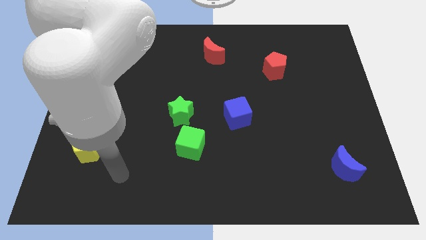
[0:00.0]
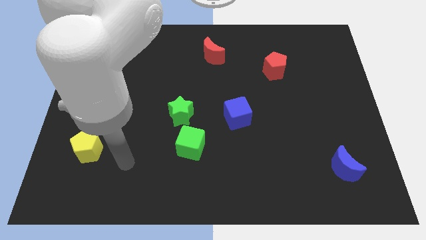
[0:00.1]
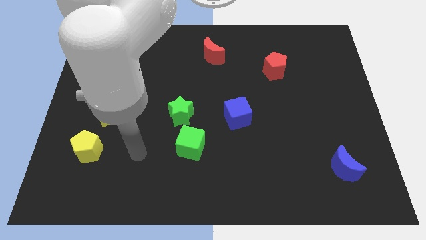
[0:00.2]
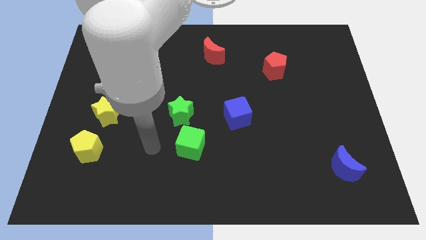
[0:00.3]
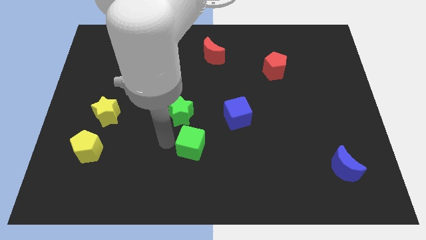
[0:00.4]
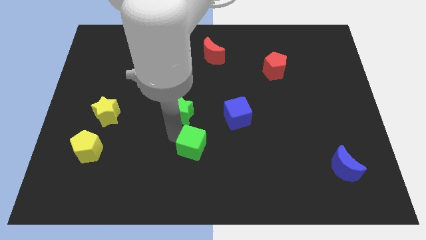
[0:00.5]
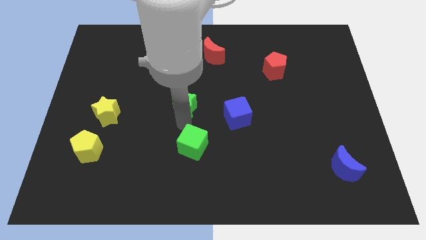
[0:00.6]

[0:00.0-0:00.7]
move the green cube away from the green star

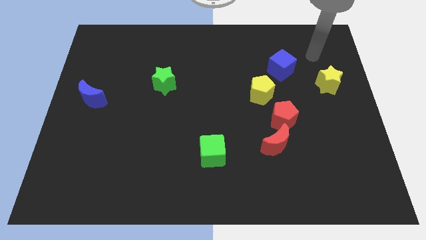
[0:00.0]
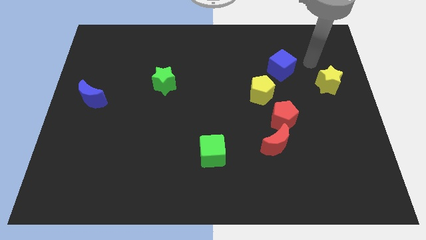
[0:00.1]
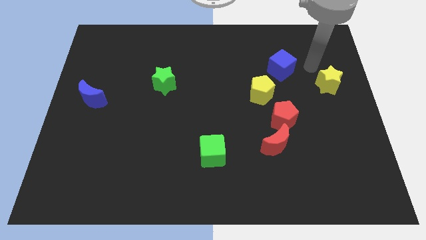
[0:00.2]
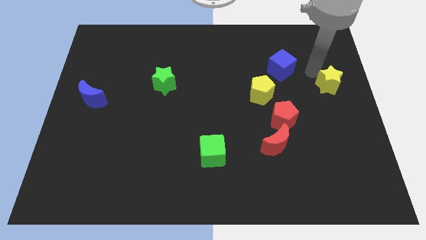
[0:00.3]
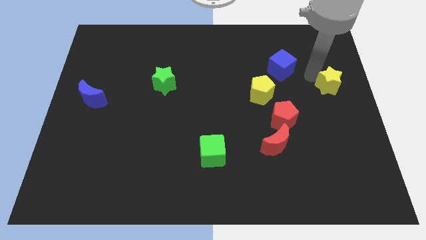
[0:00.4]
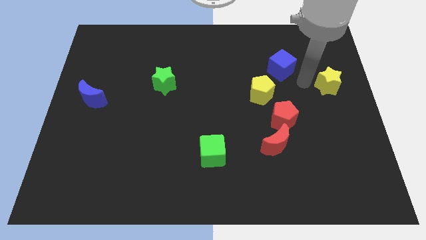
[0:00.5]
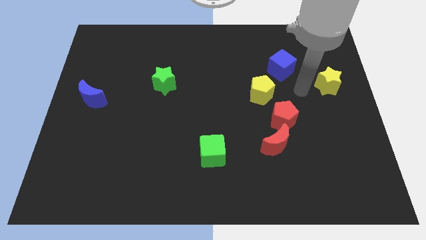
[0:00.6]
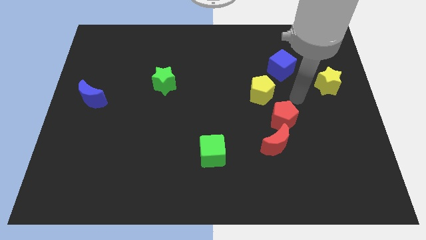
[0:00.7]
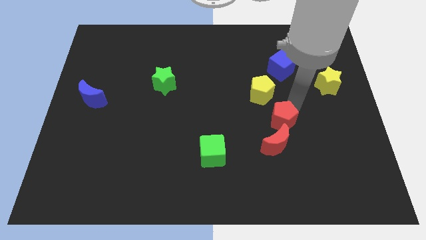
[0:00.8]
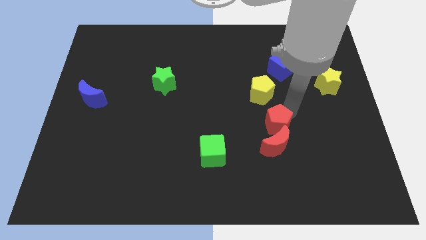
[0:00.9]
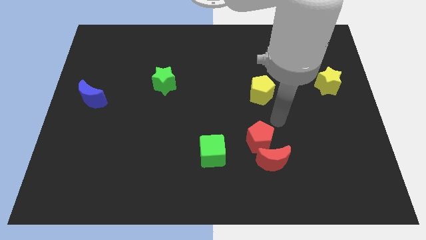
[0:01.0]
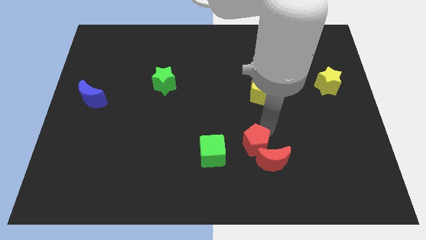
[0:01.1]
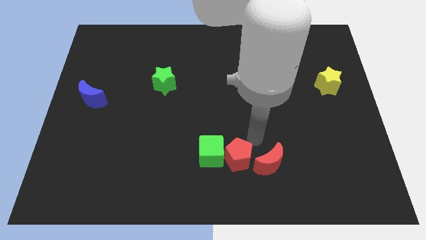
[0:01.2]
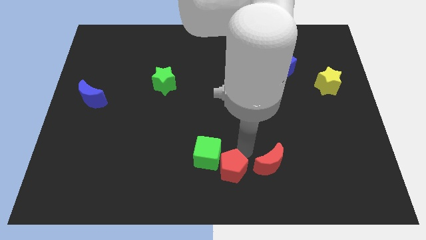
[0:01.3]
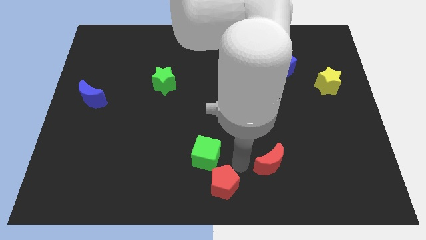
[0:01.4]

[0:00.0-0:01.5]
pull the red moon apart from the red pentagon

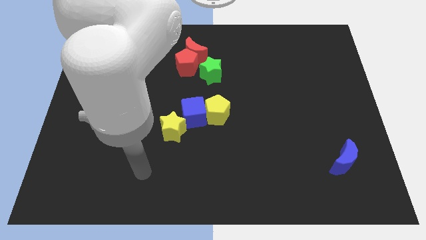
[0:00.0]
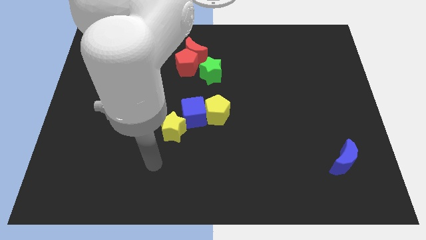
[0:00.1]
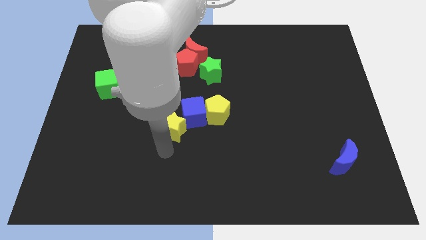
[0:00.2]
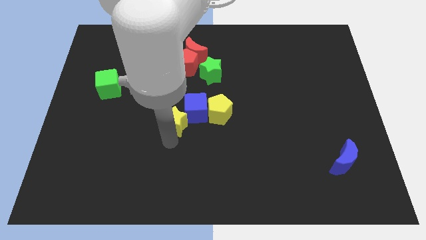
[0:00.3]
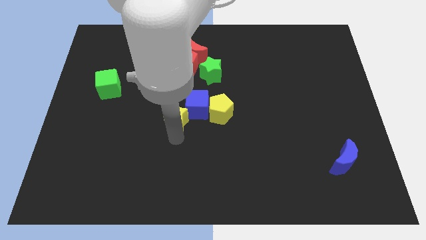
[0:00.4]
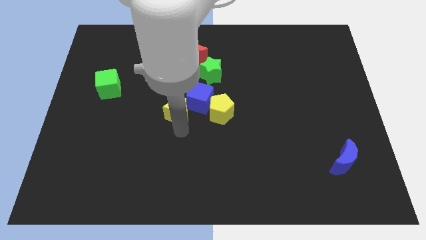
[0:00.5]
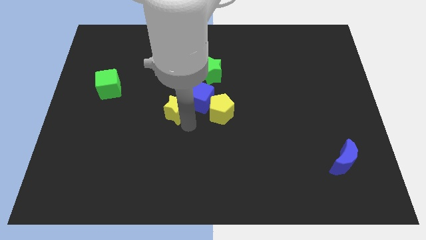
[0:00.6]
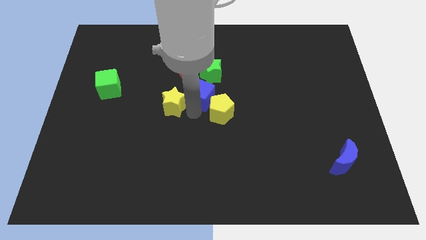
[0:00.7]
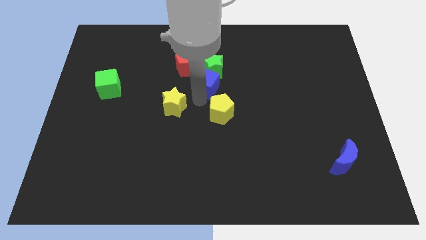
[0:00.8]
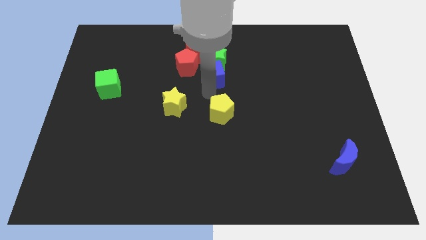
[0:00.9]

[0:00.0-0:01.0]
pull the yellow pentagon apart from the blue cube

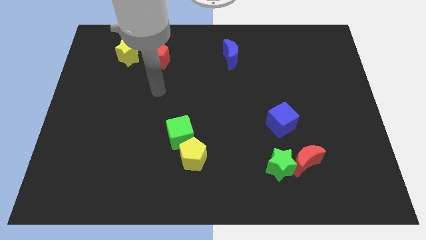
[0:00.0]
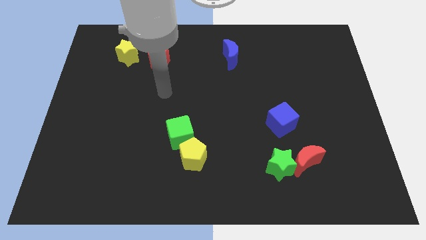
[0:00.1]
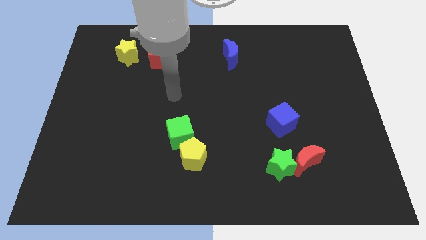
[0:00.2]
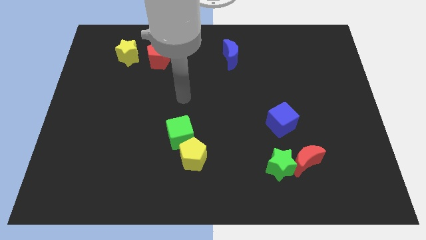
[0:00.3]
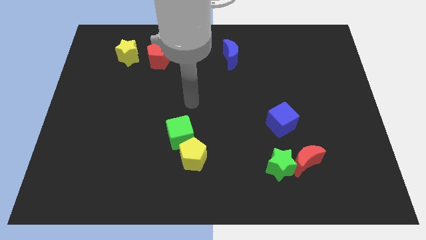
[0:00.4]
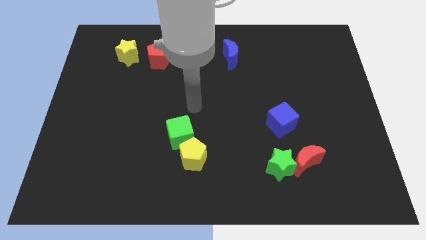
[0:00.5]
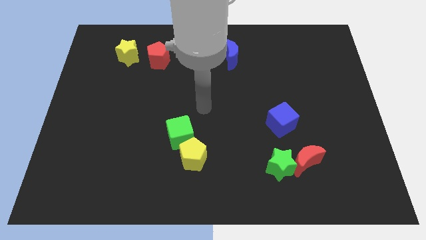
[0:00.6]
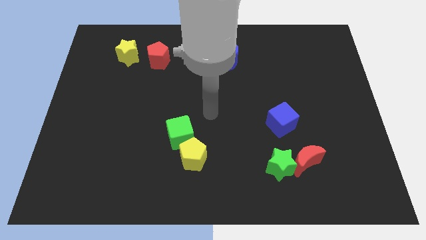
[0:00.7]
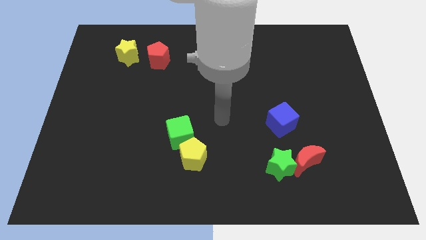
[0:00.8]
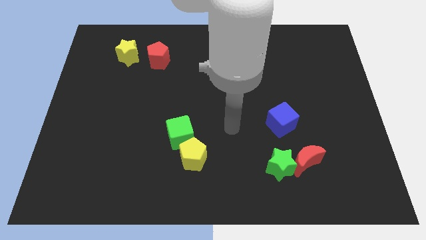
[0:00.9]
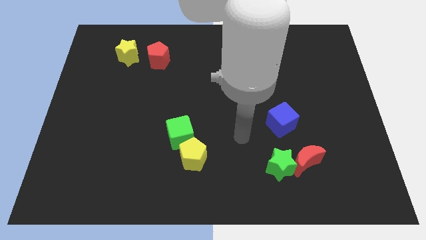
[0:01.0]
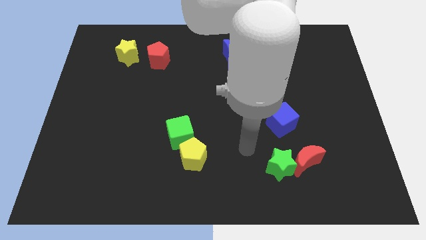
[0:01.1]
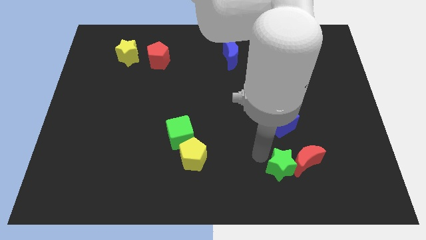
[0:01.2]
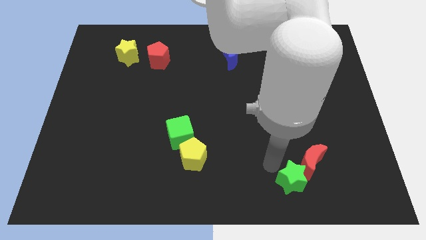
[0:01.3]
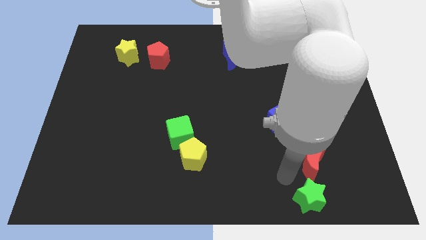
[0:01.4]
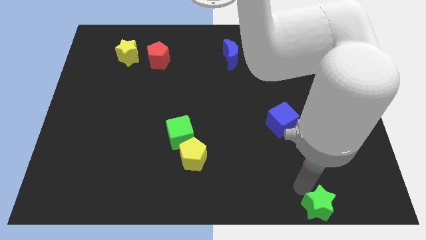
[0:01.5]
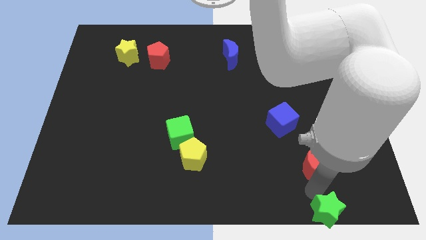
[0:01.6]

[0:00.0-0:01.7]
pull the red moon apart from the green star

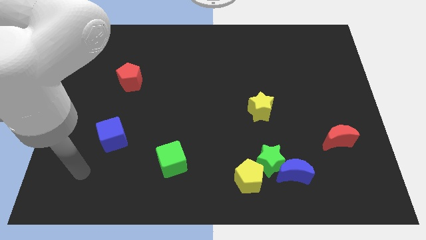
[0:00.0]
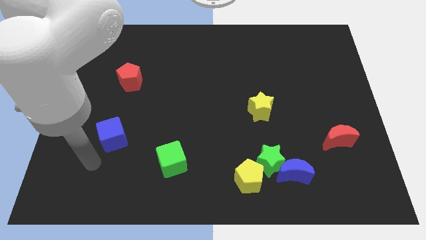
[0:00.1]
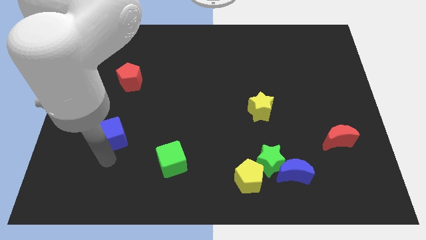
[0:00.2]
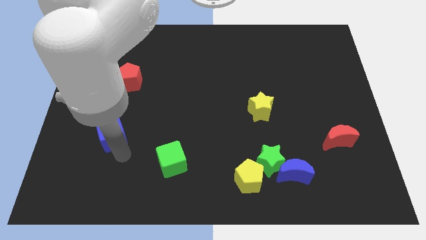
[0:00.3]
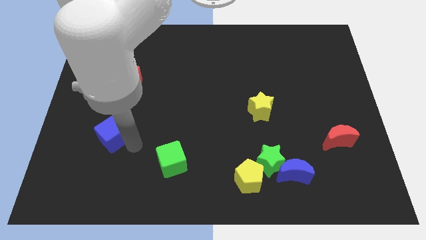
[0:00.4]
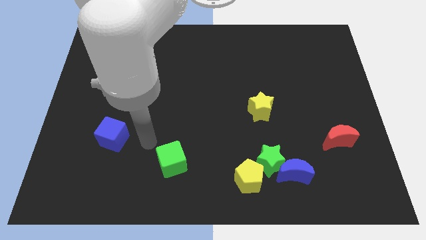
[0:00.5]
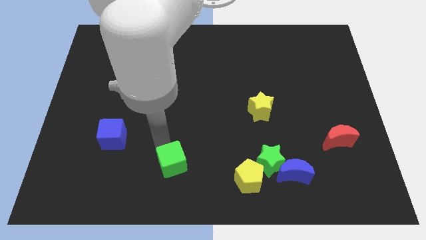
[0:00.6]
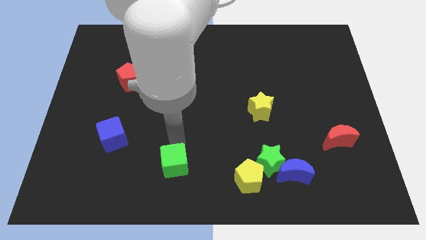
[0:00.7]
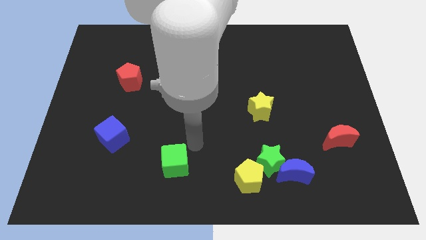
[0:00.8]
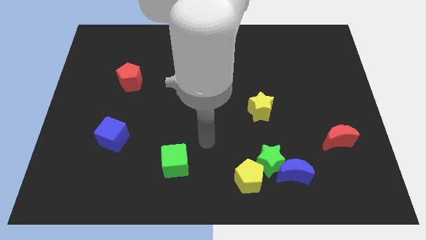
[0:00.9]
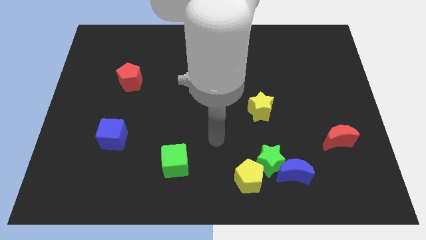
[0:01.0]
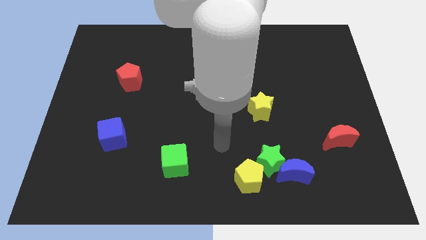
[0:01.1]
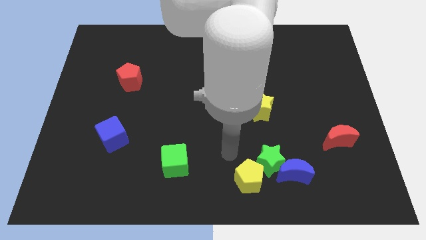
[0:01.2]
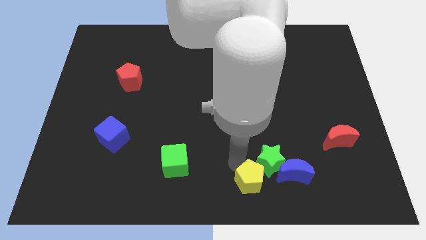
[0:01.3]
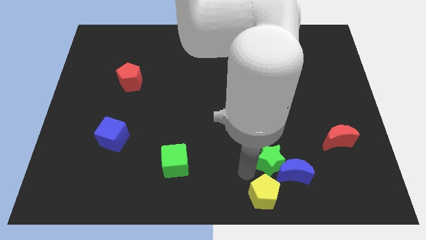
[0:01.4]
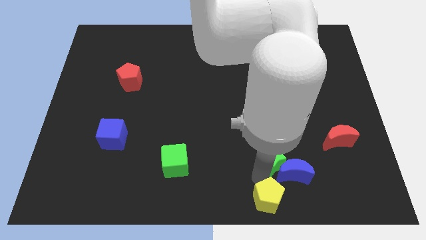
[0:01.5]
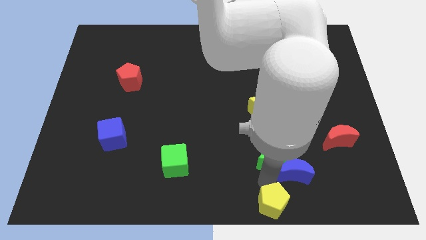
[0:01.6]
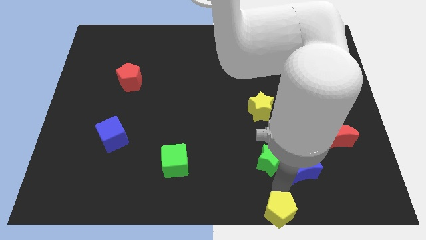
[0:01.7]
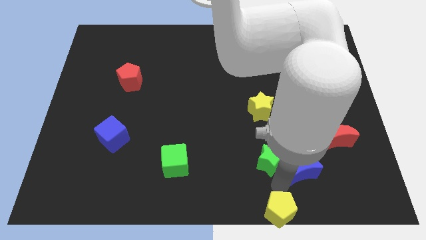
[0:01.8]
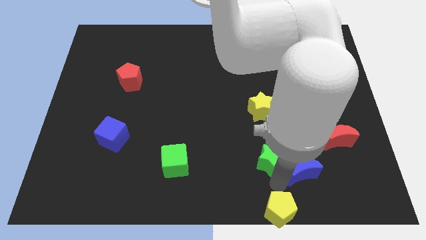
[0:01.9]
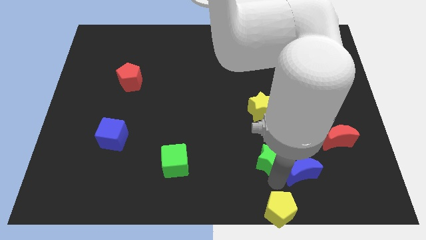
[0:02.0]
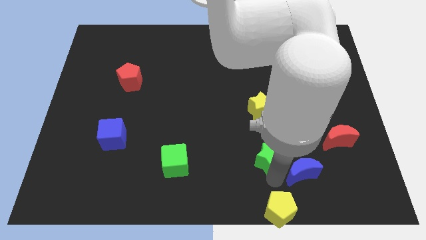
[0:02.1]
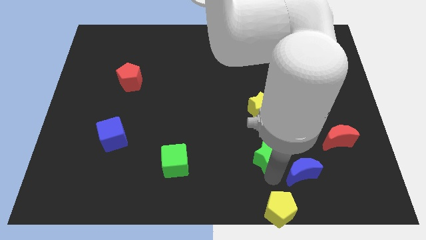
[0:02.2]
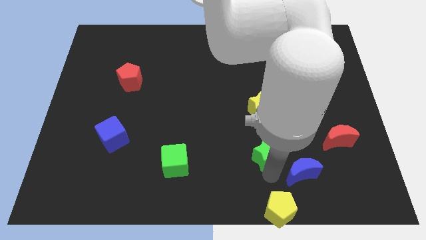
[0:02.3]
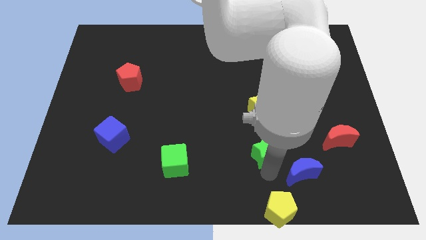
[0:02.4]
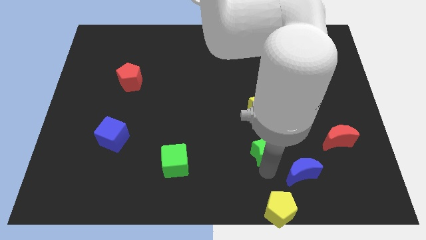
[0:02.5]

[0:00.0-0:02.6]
move the green star away from the blue moon and yellow pentagon

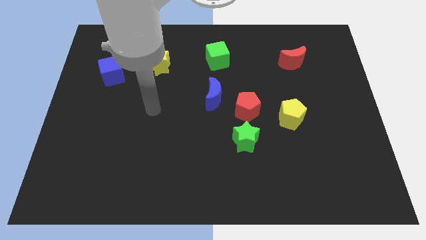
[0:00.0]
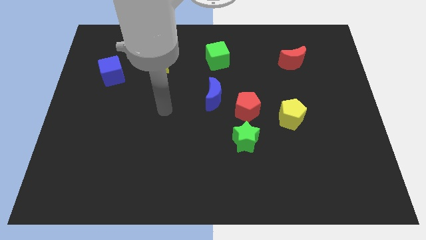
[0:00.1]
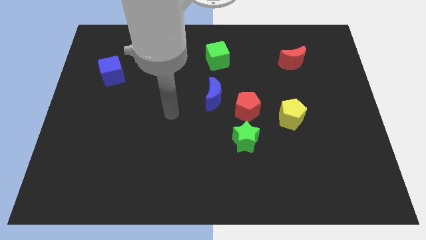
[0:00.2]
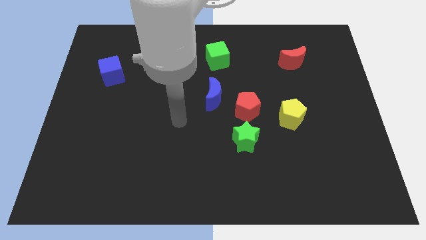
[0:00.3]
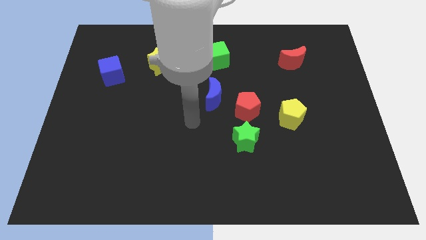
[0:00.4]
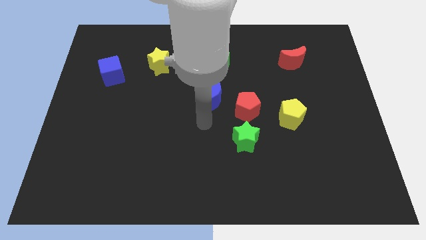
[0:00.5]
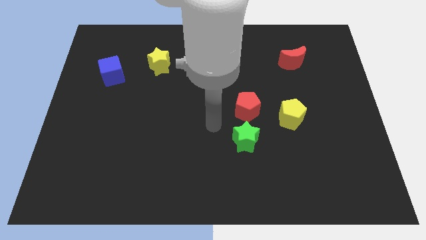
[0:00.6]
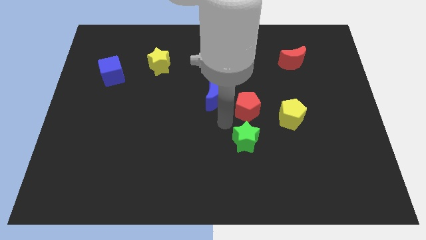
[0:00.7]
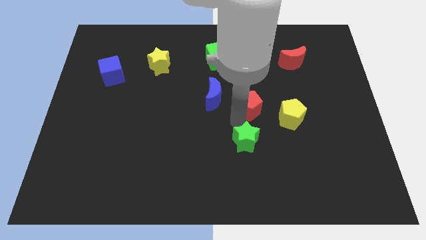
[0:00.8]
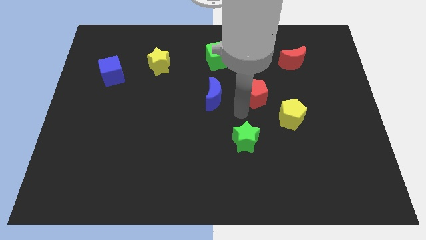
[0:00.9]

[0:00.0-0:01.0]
move the blue moon away from the red pentagon

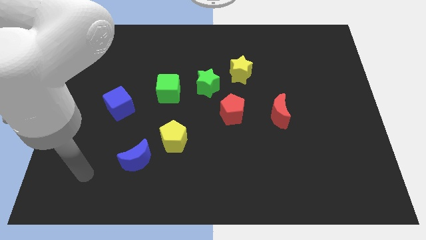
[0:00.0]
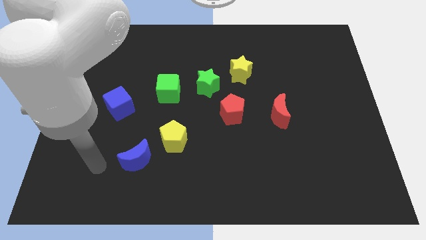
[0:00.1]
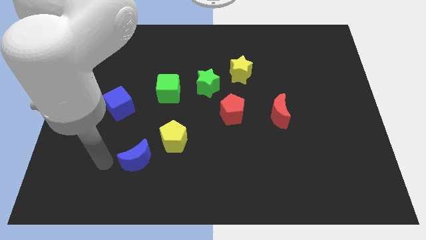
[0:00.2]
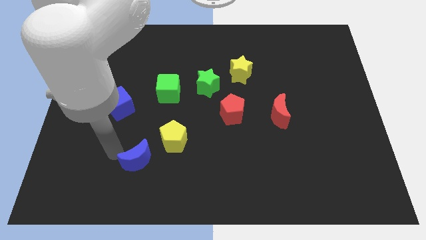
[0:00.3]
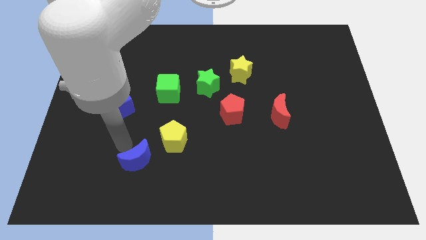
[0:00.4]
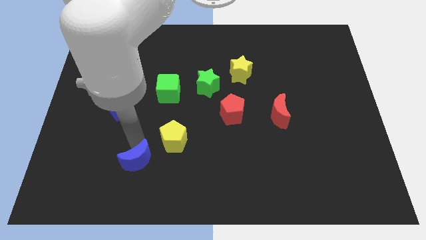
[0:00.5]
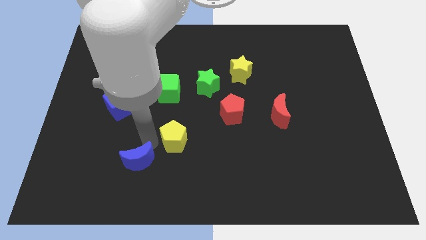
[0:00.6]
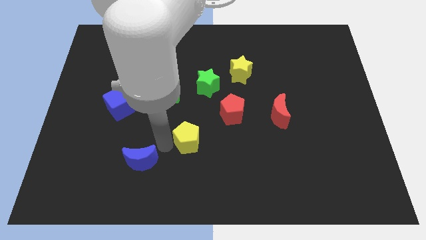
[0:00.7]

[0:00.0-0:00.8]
separate the blue moon from the yellow pentagon
